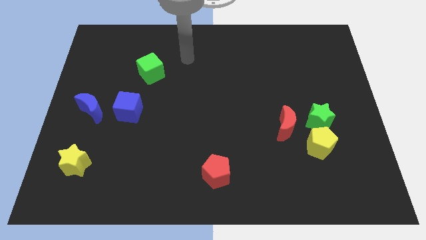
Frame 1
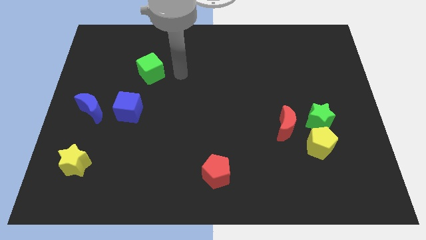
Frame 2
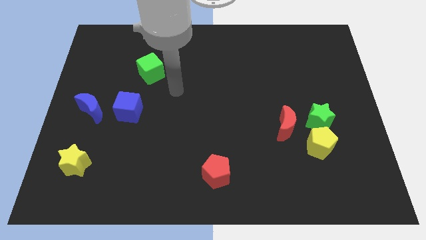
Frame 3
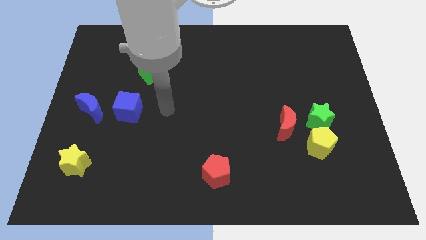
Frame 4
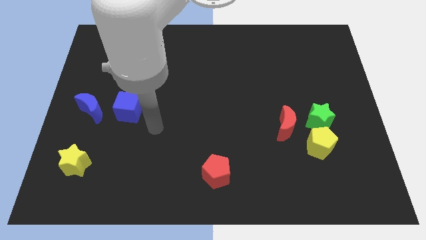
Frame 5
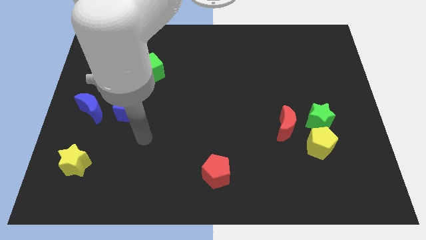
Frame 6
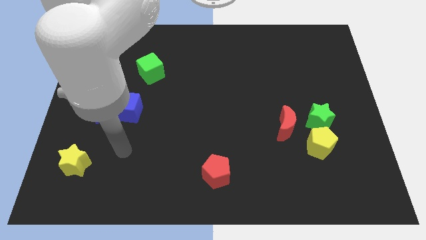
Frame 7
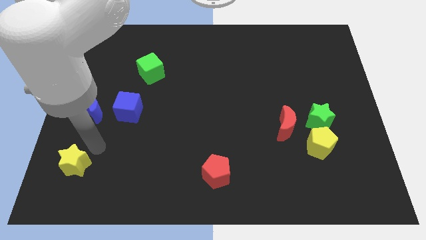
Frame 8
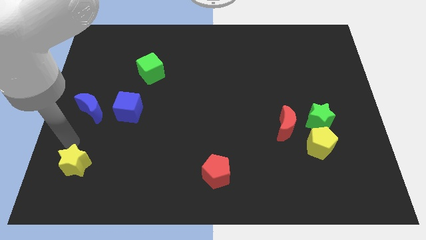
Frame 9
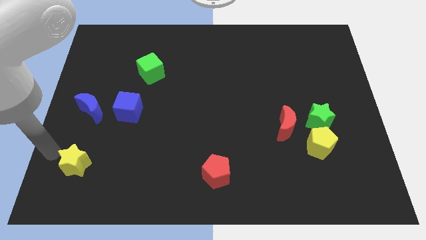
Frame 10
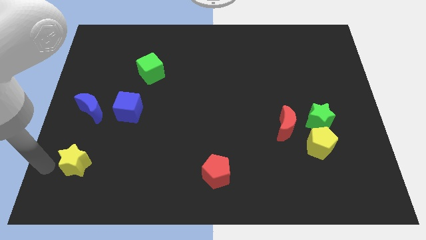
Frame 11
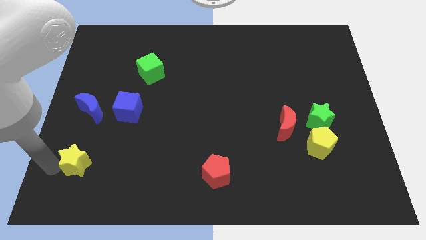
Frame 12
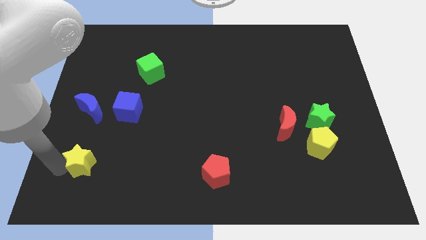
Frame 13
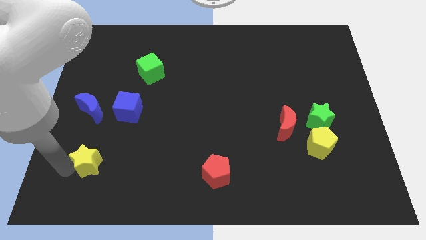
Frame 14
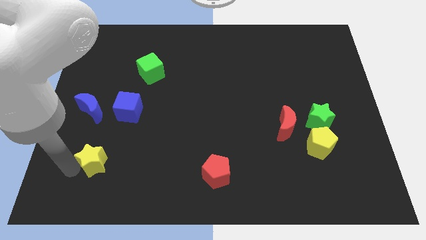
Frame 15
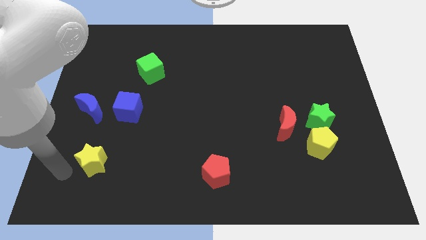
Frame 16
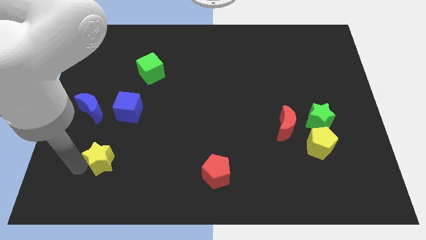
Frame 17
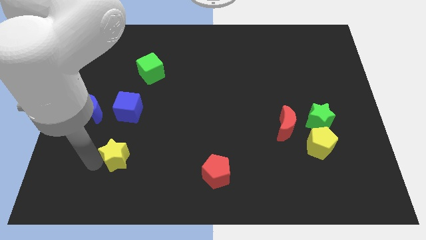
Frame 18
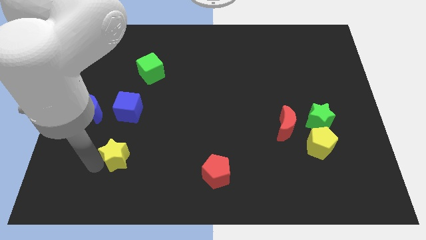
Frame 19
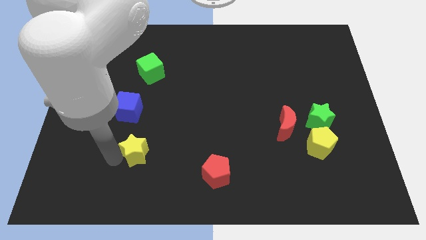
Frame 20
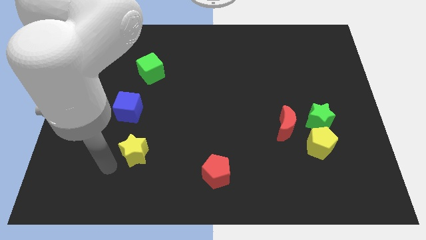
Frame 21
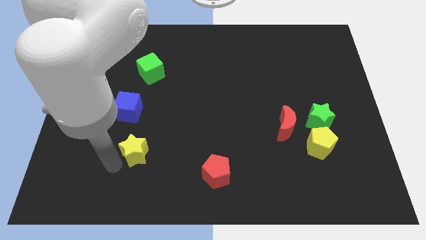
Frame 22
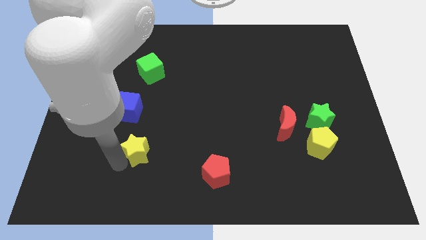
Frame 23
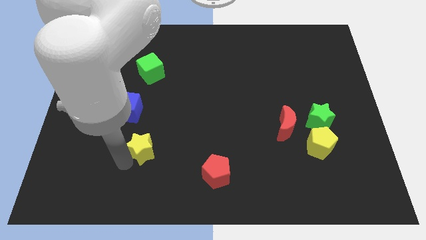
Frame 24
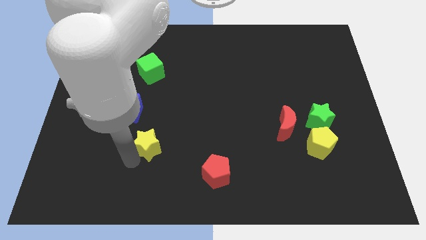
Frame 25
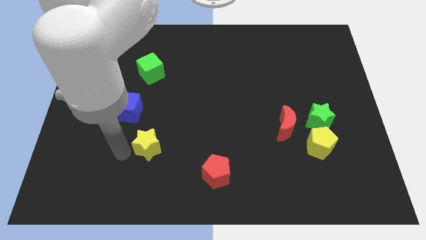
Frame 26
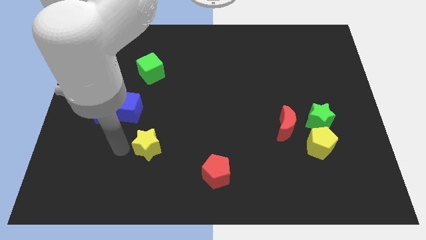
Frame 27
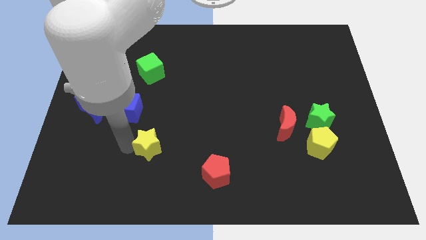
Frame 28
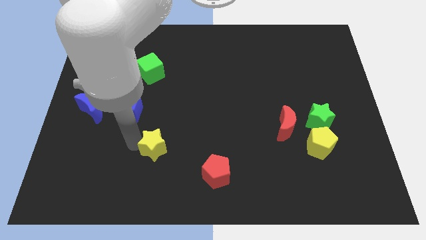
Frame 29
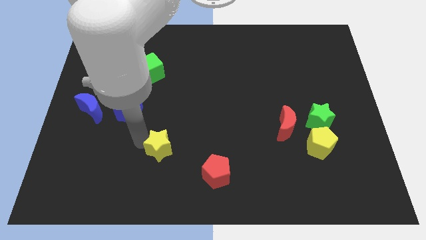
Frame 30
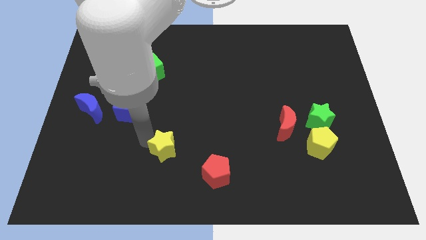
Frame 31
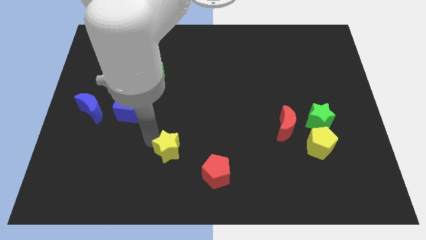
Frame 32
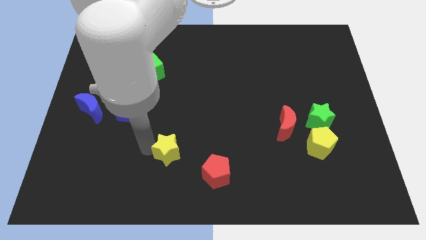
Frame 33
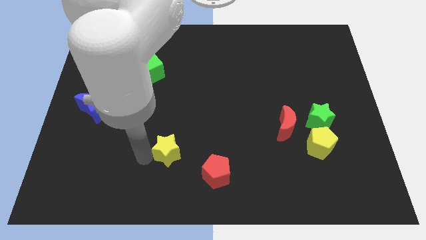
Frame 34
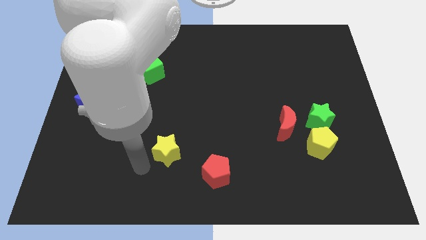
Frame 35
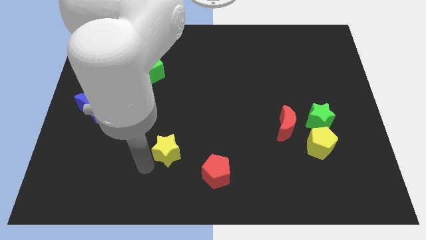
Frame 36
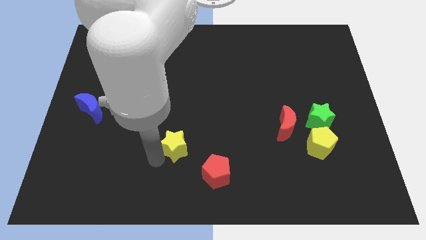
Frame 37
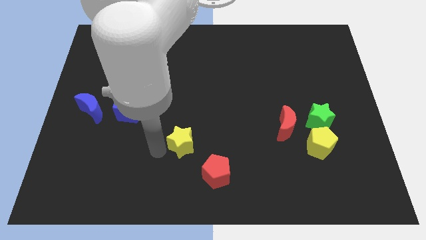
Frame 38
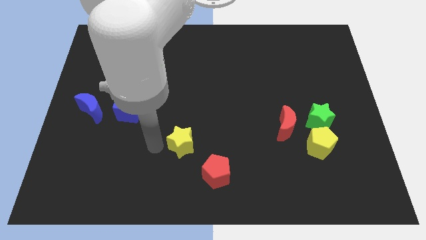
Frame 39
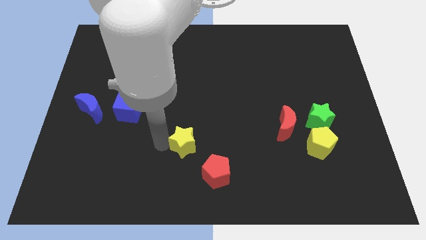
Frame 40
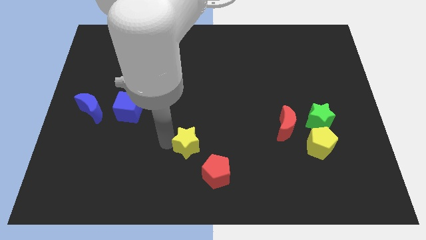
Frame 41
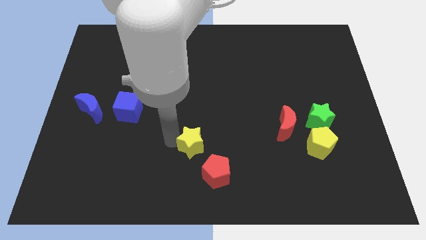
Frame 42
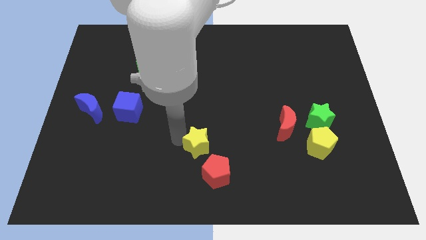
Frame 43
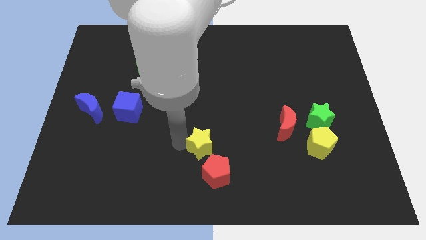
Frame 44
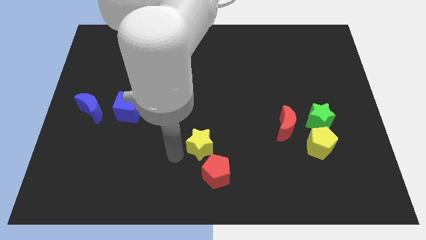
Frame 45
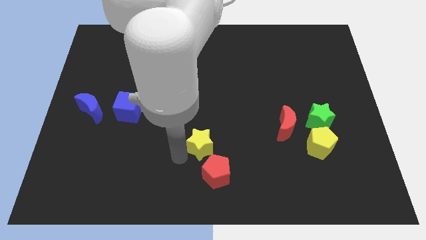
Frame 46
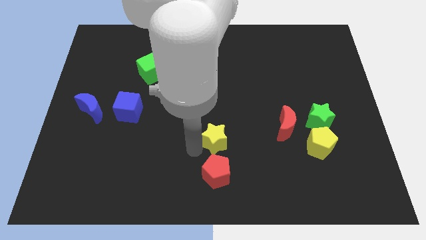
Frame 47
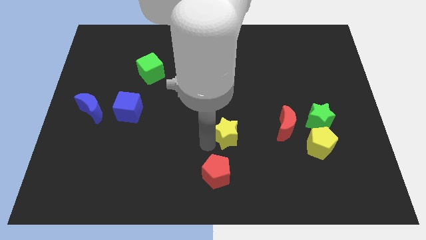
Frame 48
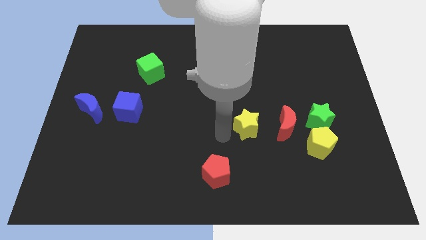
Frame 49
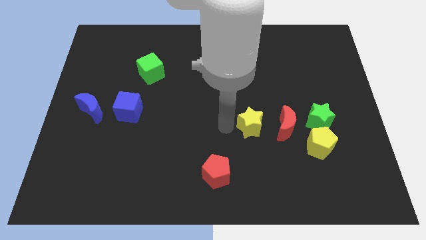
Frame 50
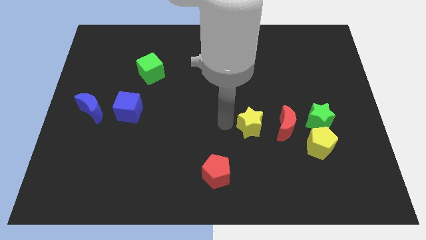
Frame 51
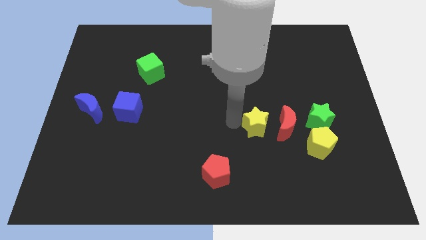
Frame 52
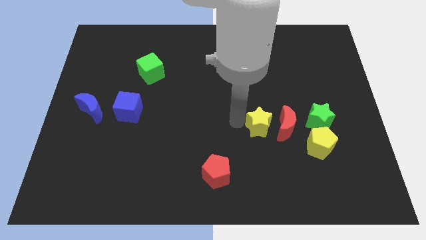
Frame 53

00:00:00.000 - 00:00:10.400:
push the yellow star towards the red moon

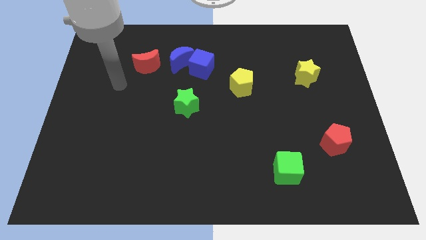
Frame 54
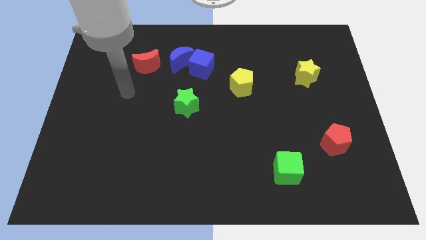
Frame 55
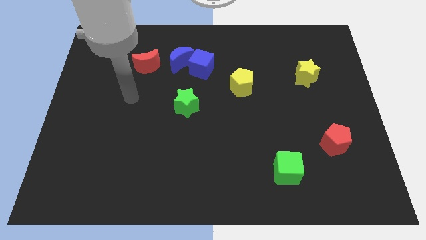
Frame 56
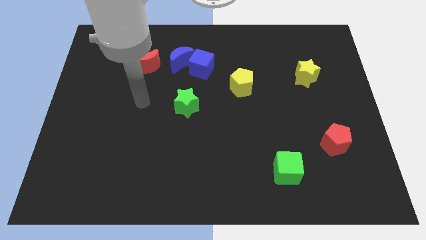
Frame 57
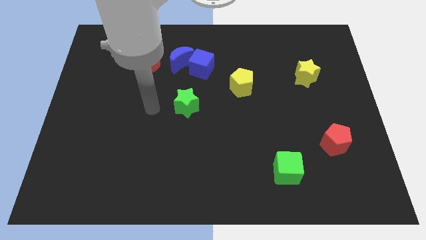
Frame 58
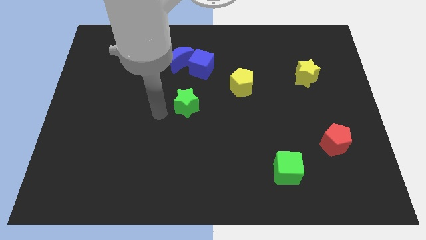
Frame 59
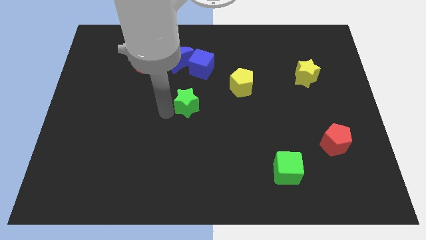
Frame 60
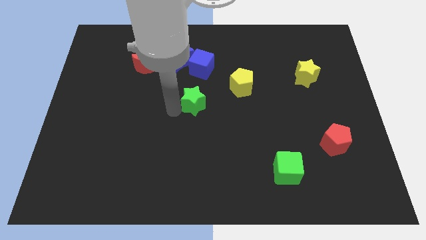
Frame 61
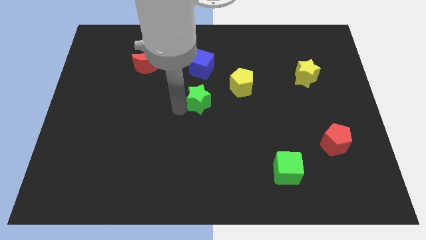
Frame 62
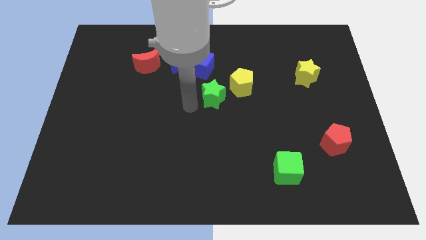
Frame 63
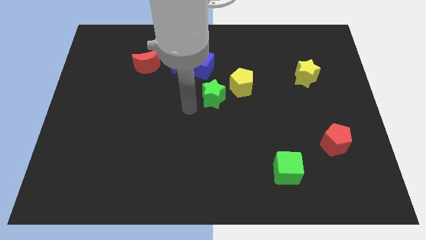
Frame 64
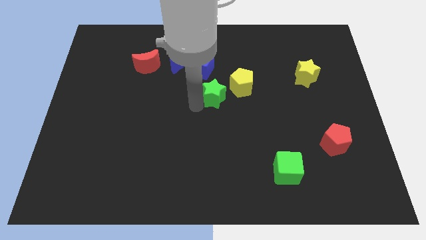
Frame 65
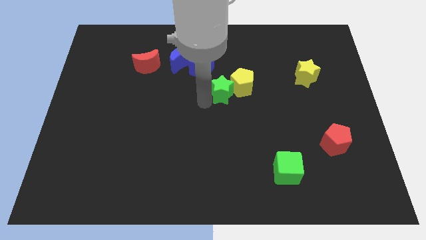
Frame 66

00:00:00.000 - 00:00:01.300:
move the green star next to the yellow pentagon
